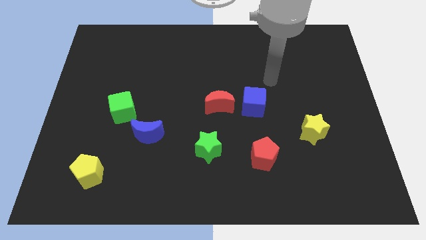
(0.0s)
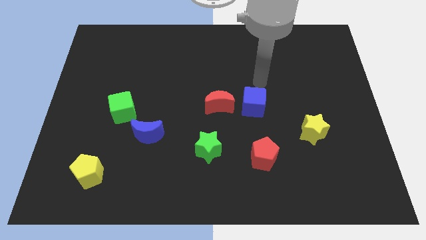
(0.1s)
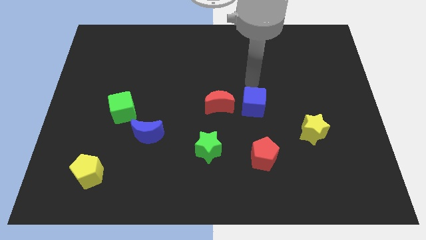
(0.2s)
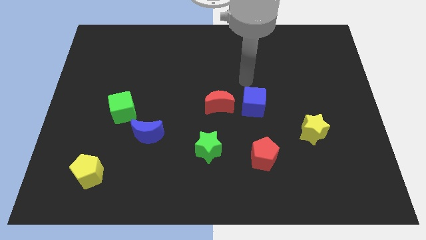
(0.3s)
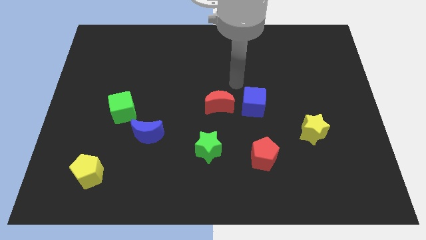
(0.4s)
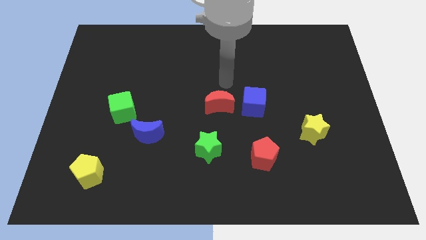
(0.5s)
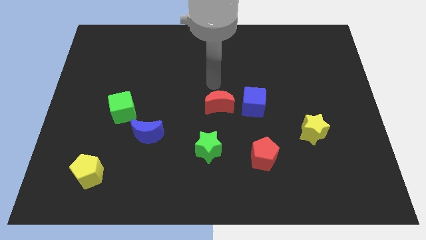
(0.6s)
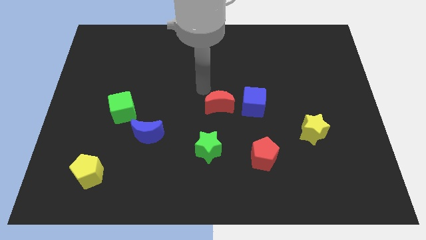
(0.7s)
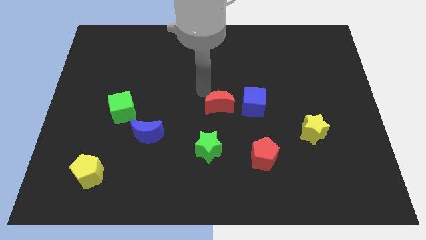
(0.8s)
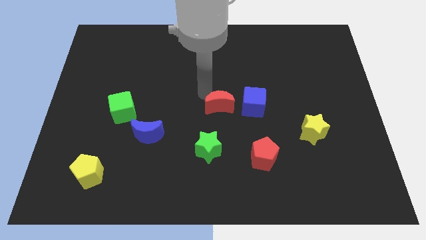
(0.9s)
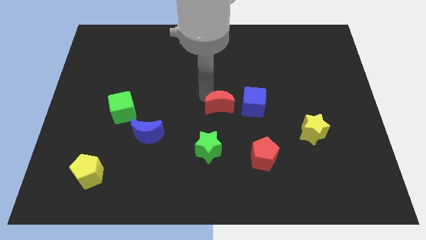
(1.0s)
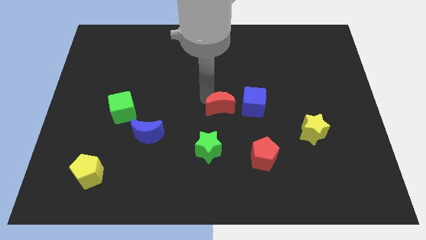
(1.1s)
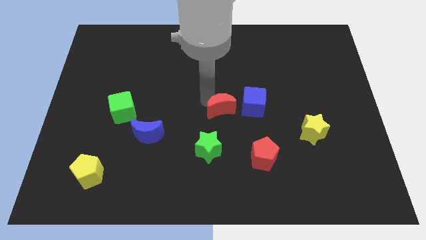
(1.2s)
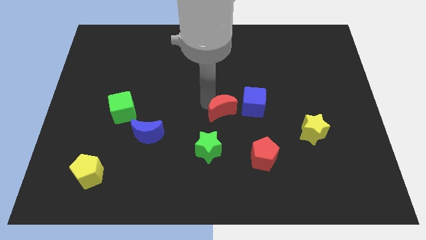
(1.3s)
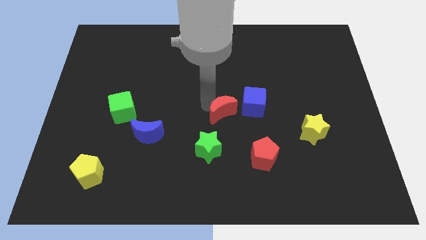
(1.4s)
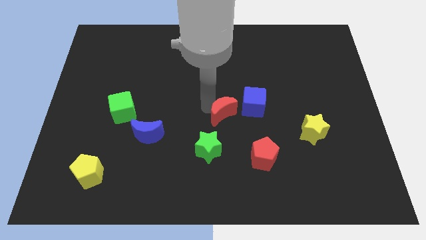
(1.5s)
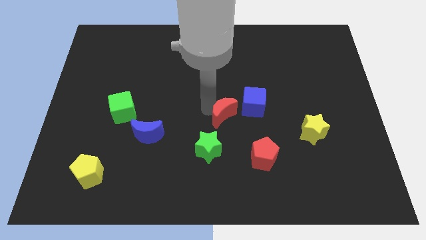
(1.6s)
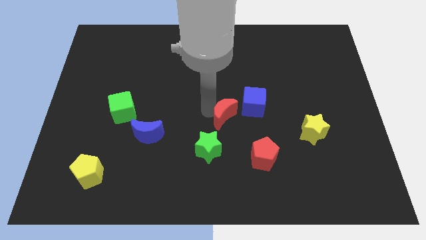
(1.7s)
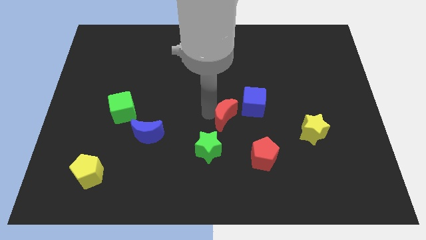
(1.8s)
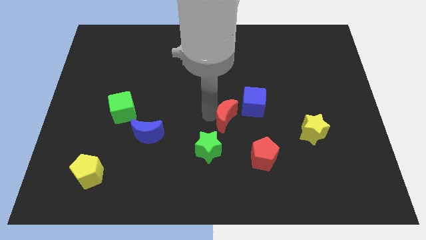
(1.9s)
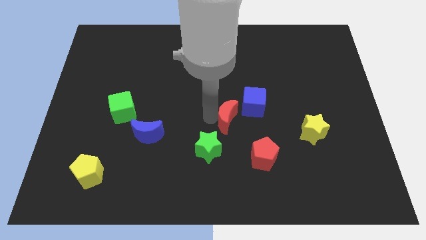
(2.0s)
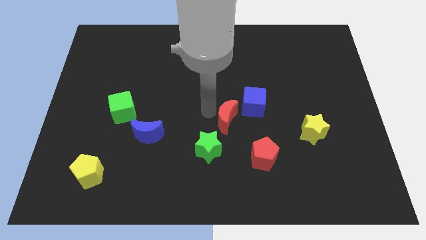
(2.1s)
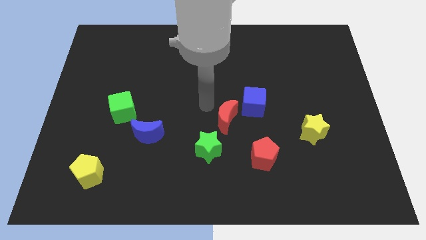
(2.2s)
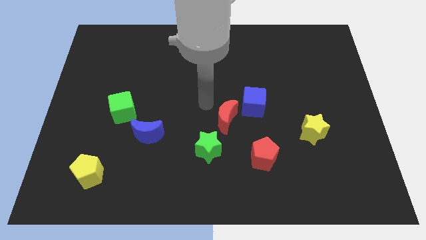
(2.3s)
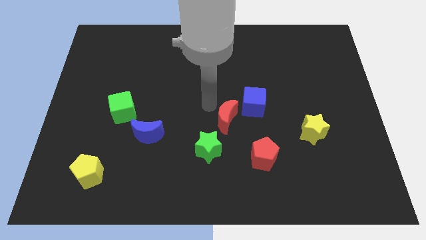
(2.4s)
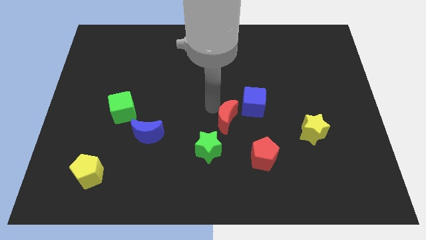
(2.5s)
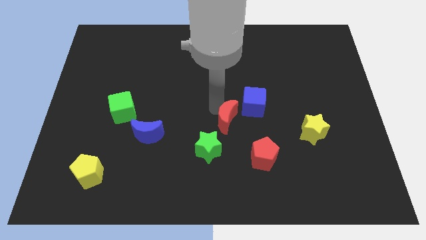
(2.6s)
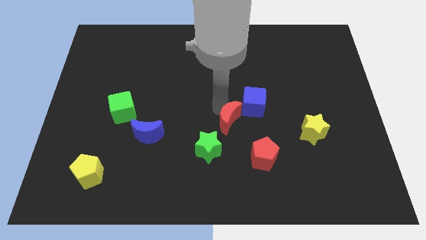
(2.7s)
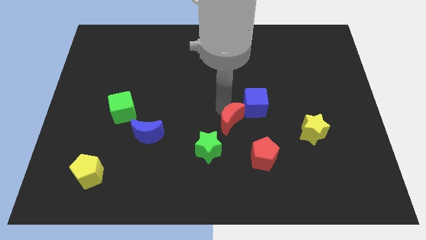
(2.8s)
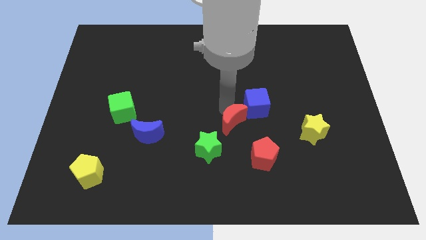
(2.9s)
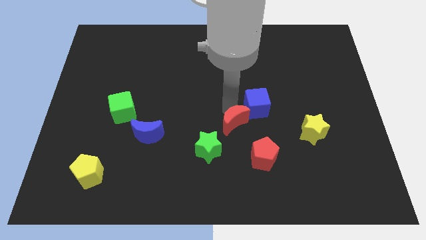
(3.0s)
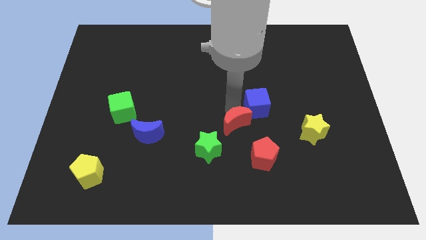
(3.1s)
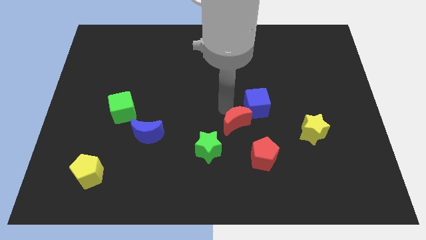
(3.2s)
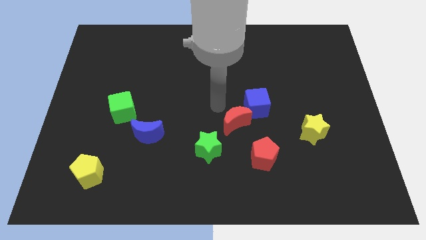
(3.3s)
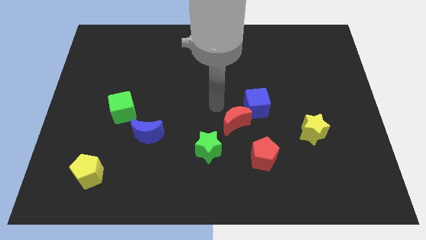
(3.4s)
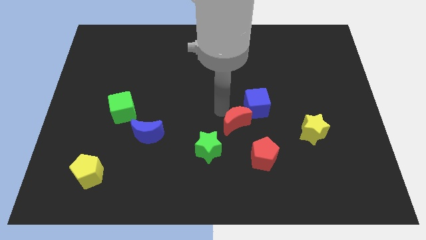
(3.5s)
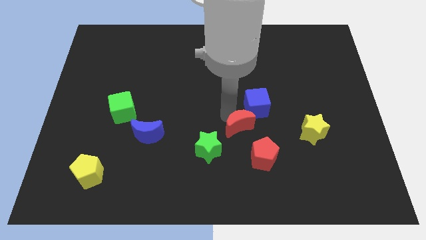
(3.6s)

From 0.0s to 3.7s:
put the red moon to the bottom side of the blue cube

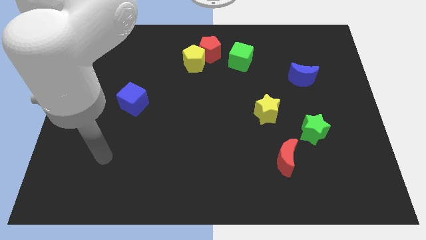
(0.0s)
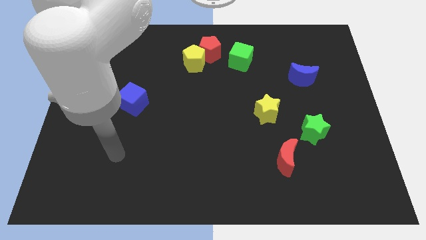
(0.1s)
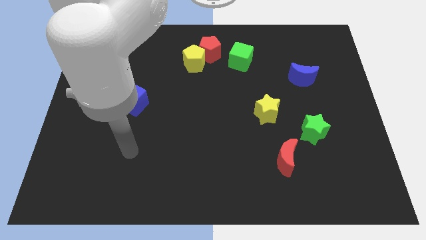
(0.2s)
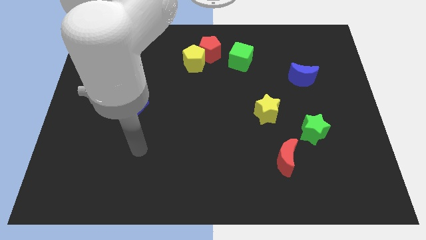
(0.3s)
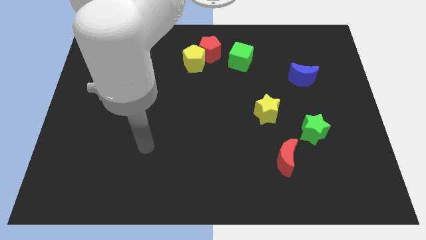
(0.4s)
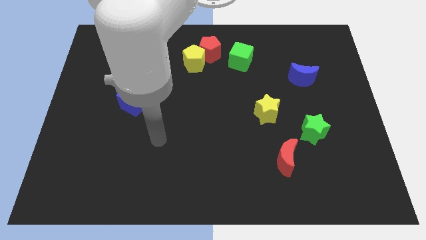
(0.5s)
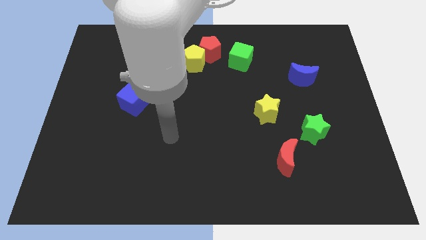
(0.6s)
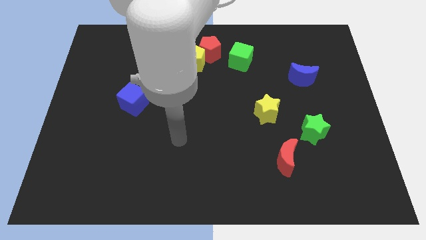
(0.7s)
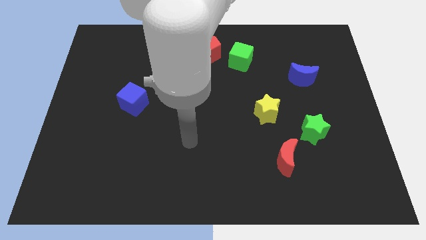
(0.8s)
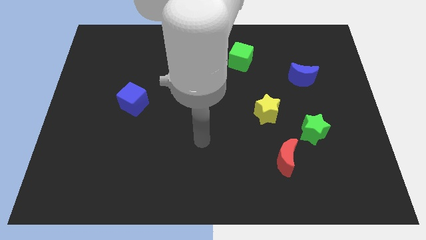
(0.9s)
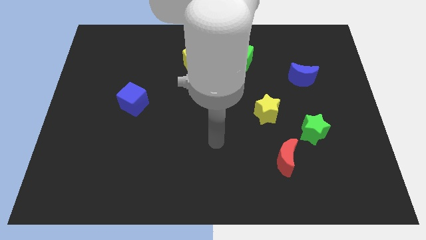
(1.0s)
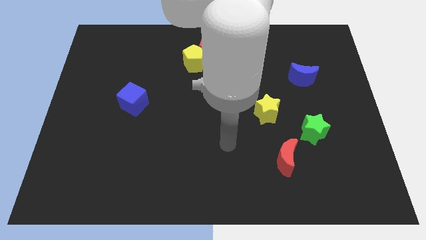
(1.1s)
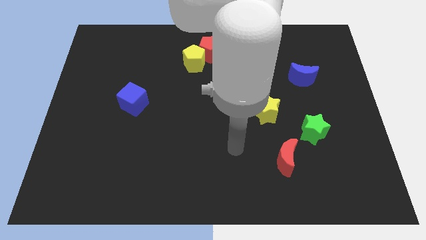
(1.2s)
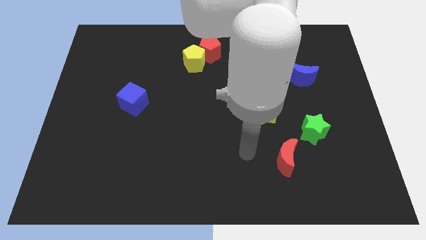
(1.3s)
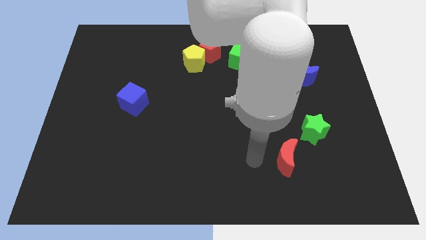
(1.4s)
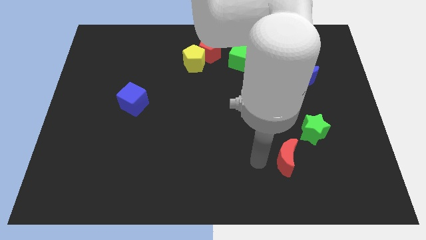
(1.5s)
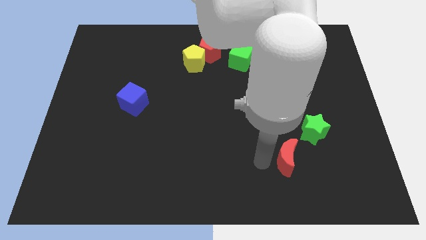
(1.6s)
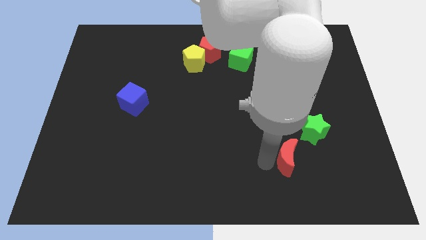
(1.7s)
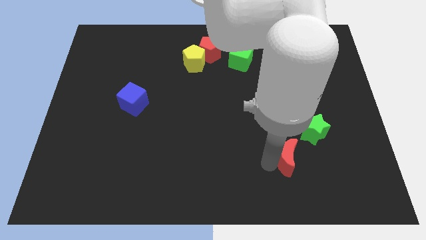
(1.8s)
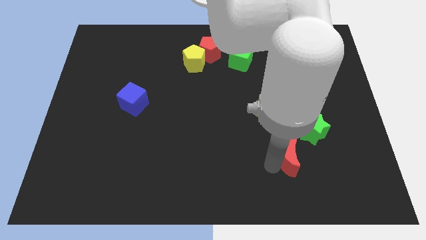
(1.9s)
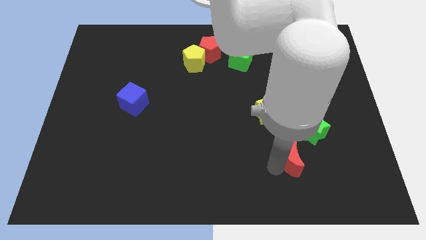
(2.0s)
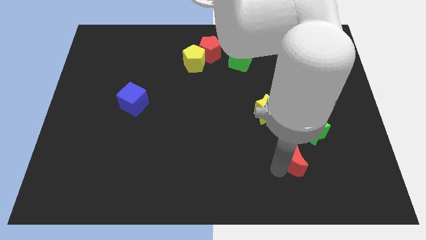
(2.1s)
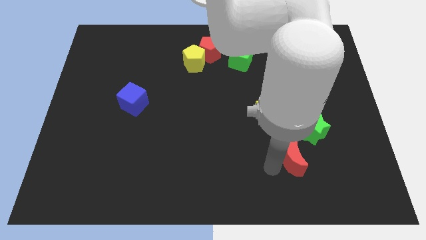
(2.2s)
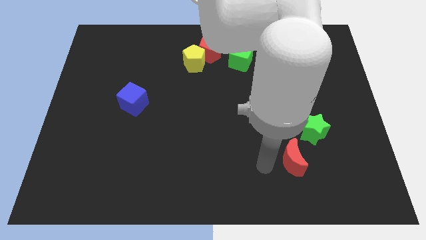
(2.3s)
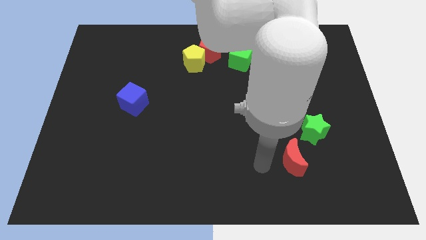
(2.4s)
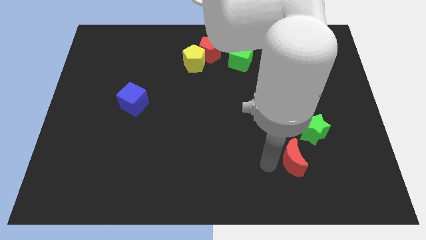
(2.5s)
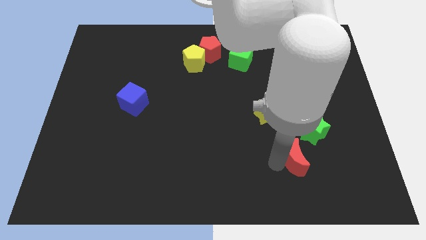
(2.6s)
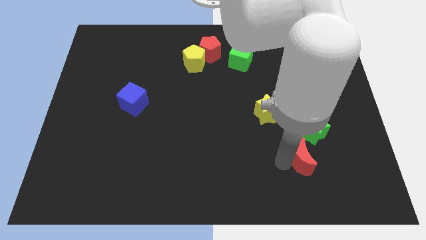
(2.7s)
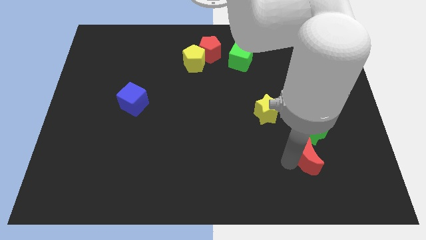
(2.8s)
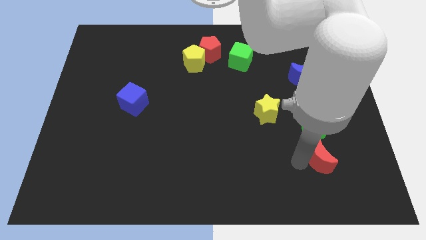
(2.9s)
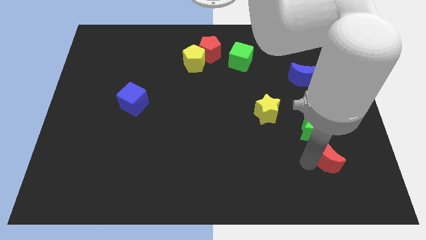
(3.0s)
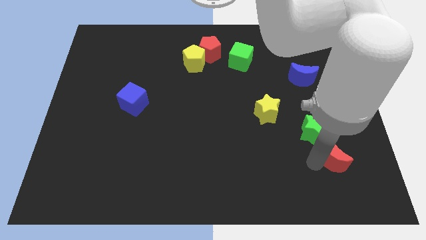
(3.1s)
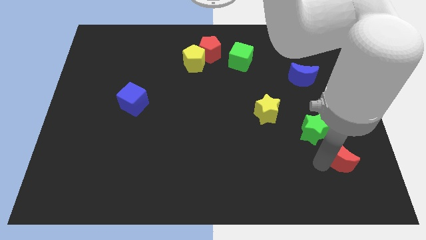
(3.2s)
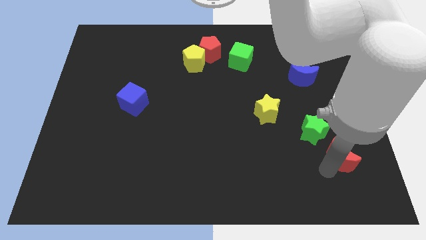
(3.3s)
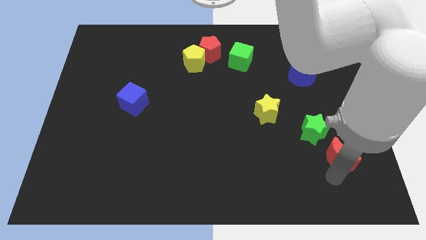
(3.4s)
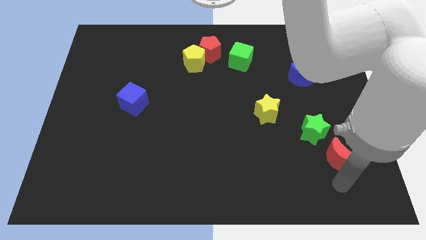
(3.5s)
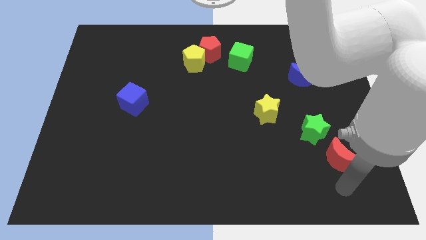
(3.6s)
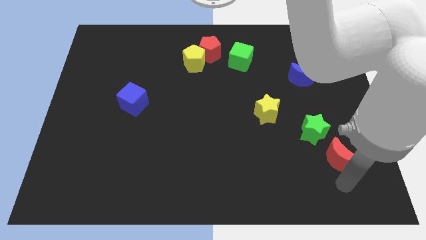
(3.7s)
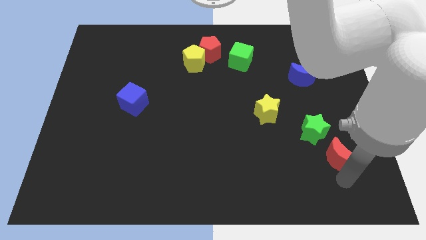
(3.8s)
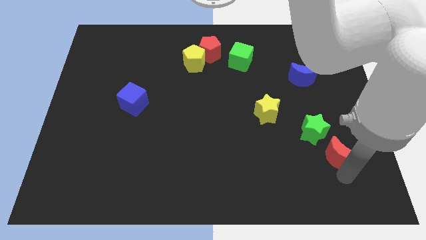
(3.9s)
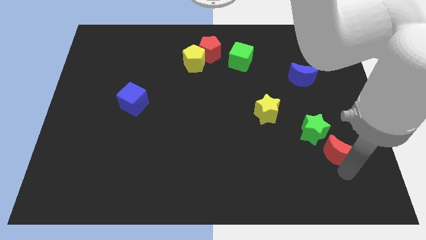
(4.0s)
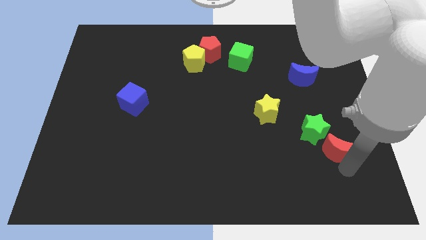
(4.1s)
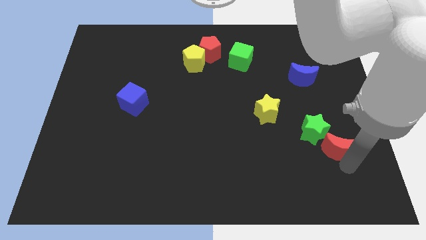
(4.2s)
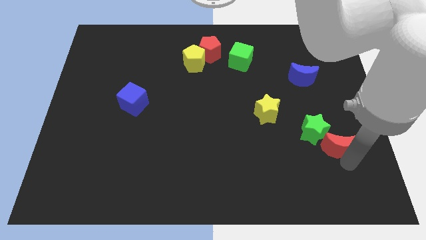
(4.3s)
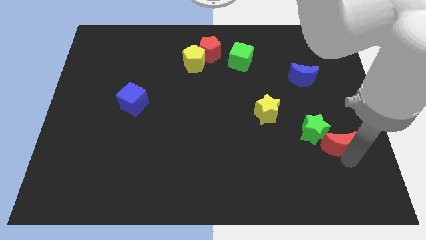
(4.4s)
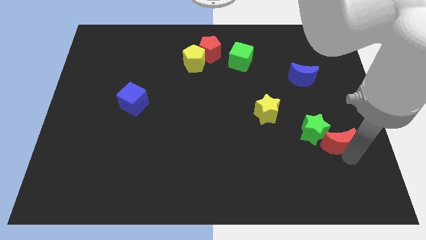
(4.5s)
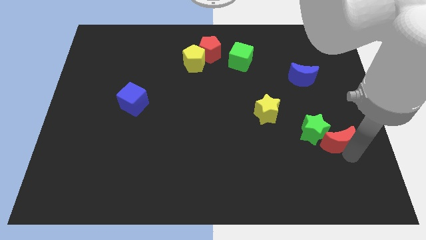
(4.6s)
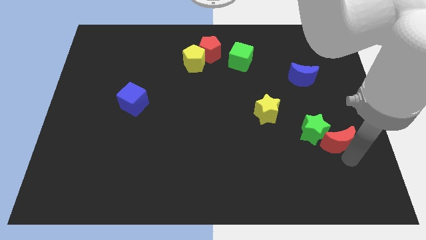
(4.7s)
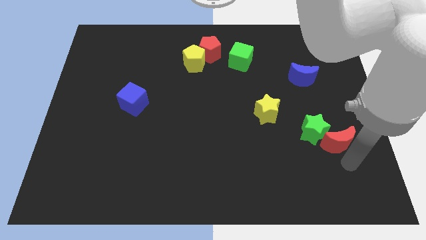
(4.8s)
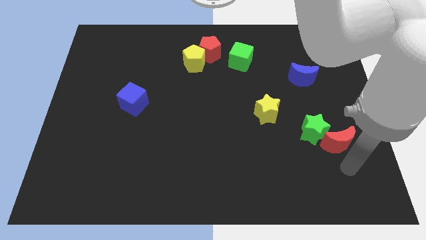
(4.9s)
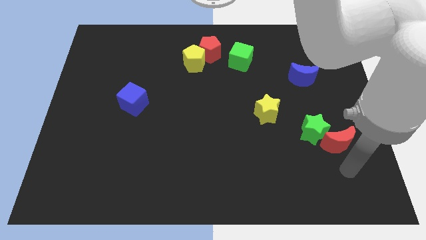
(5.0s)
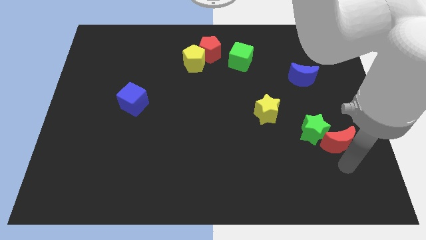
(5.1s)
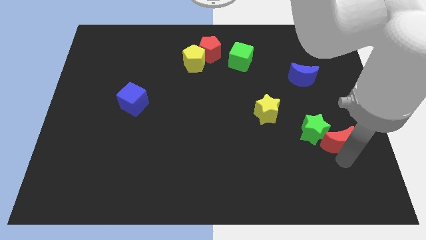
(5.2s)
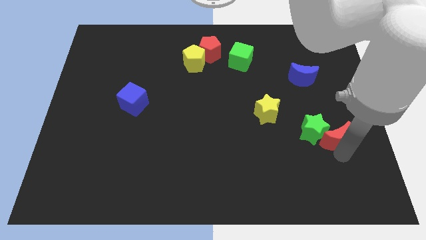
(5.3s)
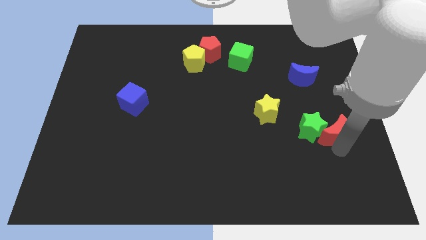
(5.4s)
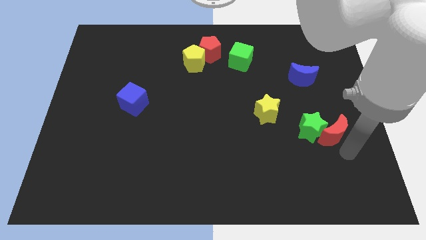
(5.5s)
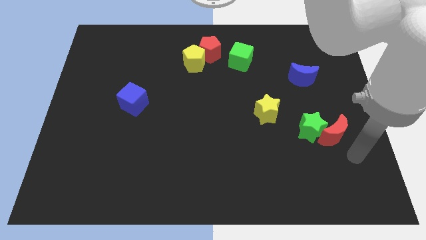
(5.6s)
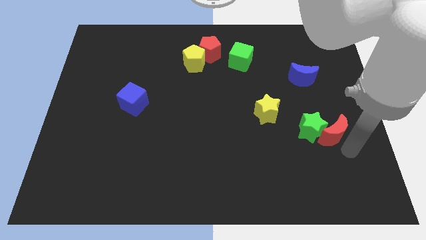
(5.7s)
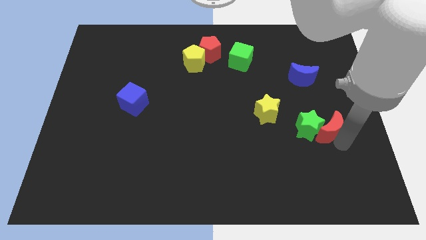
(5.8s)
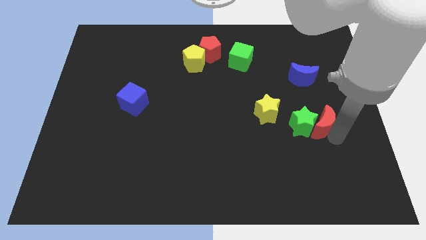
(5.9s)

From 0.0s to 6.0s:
slide the red moon to the bottom of the blue moon
